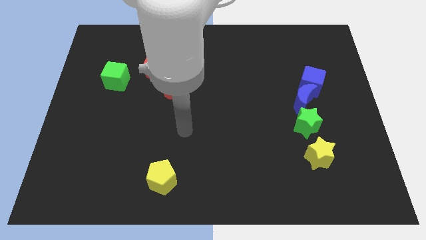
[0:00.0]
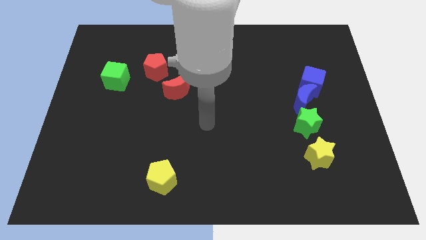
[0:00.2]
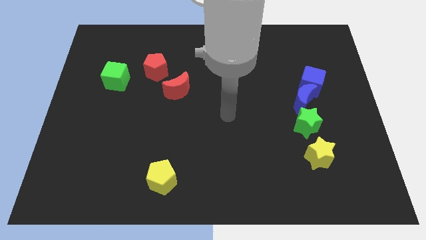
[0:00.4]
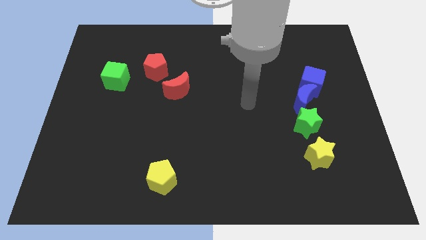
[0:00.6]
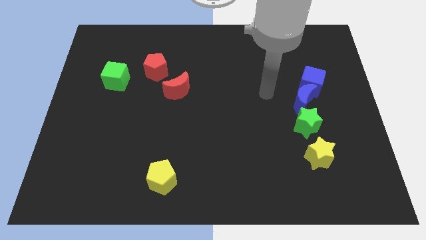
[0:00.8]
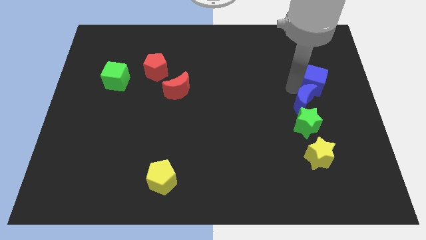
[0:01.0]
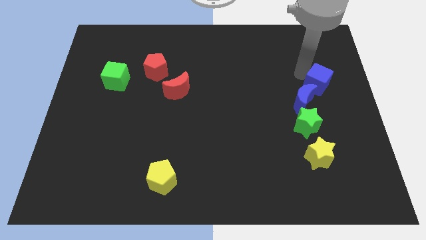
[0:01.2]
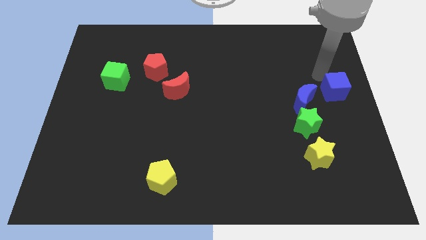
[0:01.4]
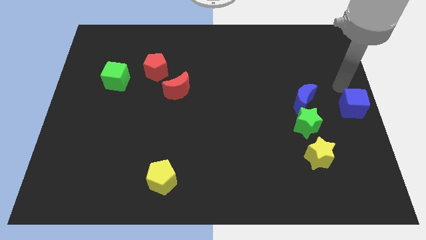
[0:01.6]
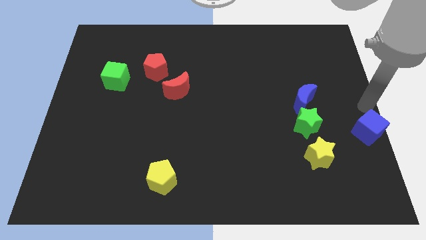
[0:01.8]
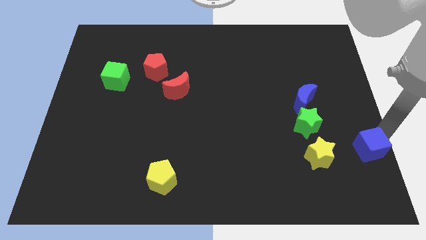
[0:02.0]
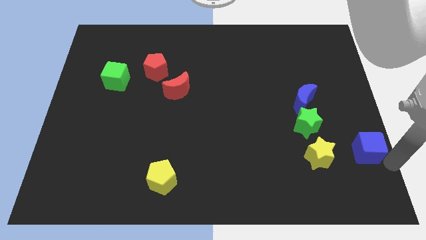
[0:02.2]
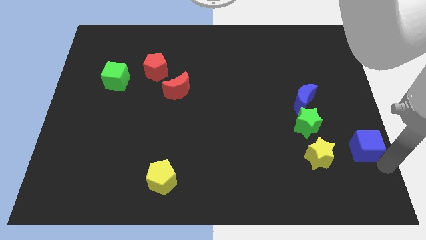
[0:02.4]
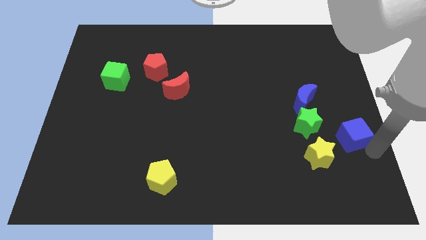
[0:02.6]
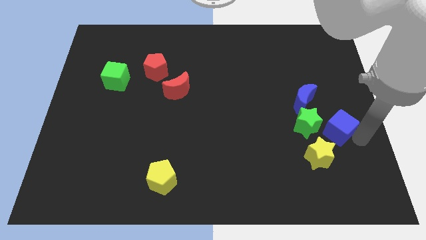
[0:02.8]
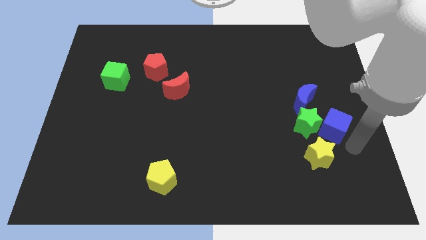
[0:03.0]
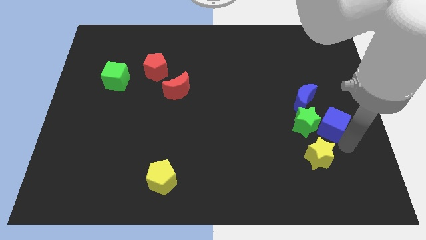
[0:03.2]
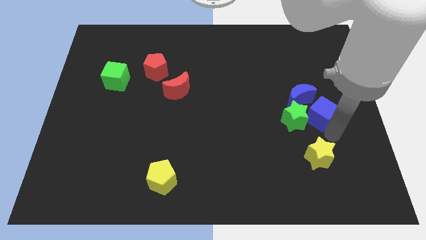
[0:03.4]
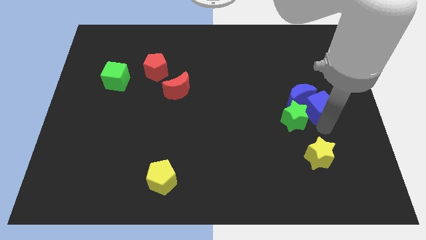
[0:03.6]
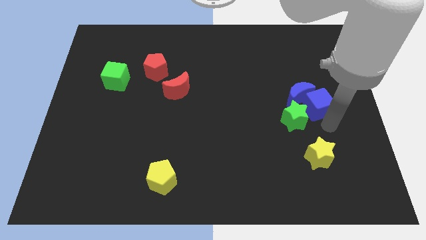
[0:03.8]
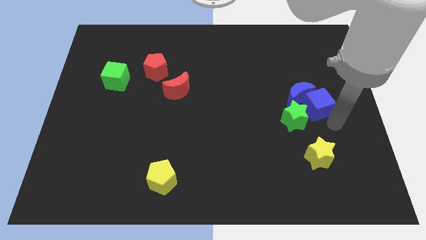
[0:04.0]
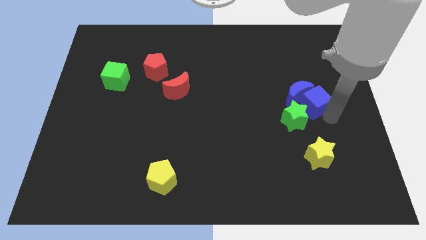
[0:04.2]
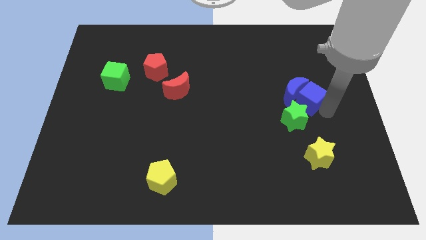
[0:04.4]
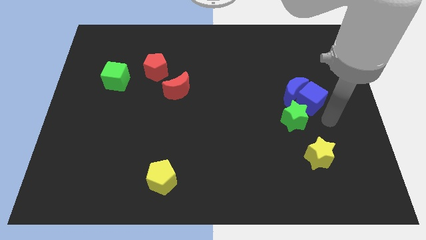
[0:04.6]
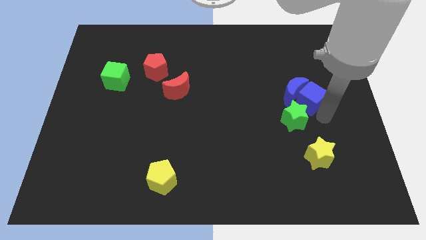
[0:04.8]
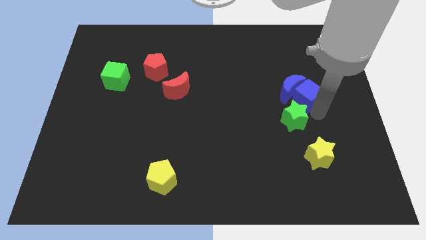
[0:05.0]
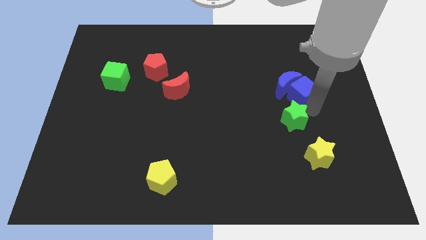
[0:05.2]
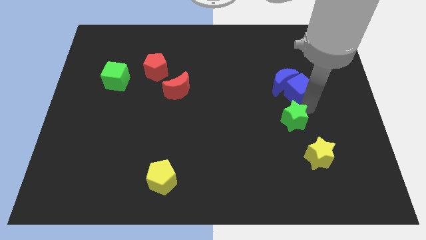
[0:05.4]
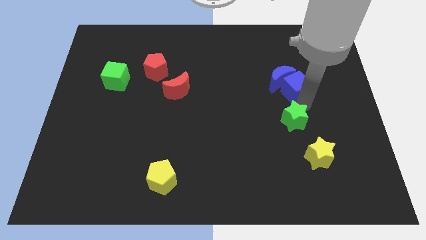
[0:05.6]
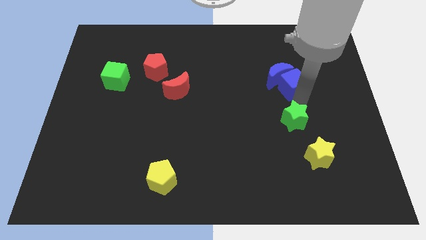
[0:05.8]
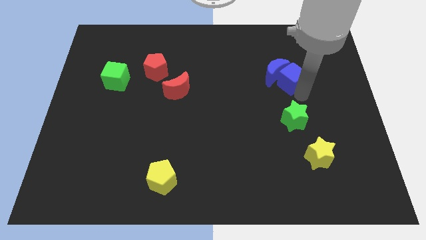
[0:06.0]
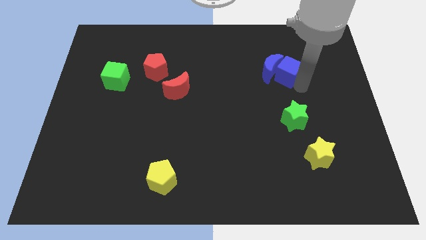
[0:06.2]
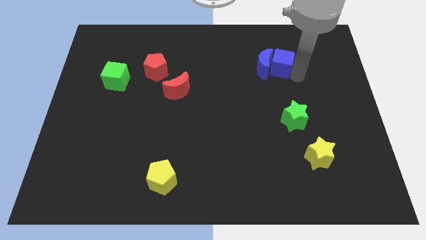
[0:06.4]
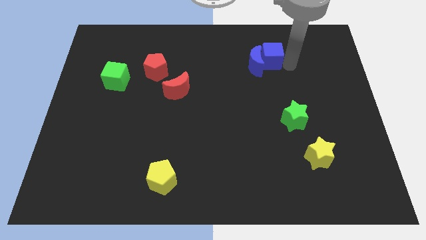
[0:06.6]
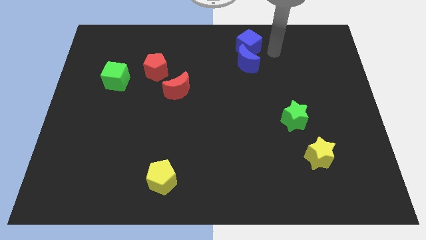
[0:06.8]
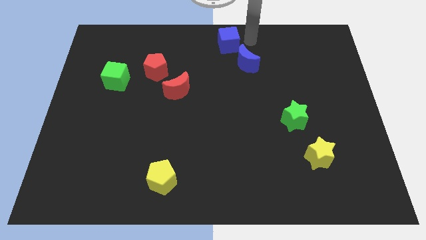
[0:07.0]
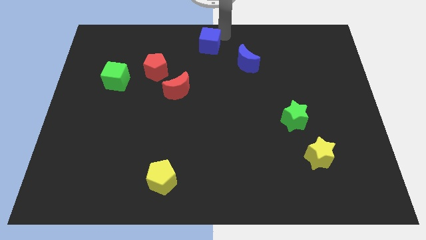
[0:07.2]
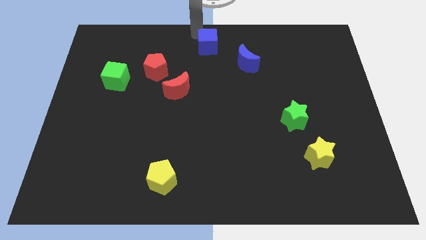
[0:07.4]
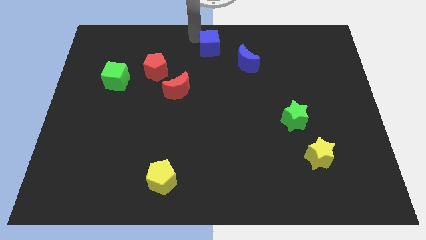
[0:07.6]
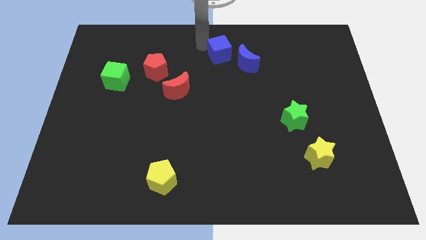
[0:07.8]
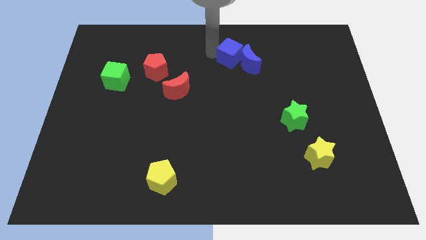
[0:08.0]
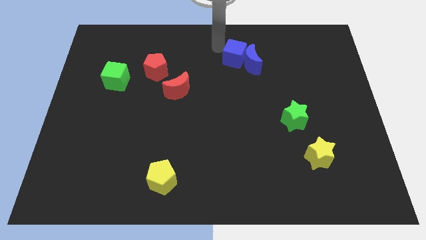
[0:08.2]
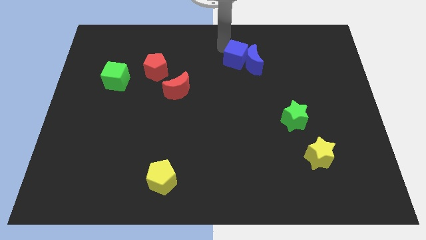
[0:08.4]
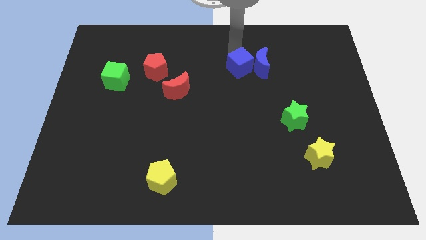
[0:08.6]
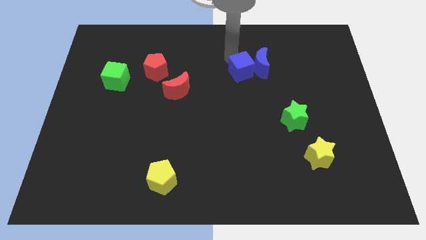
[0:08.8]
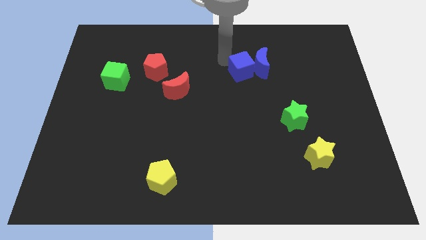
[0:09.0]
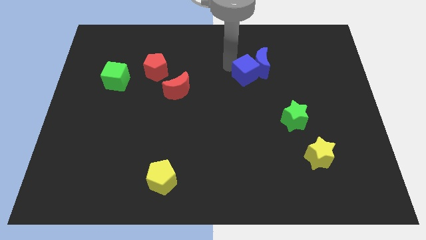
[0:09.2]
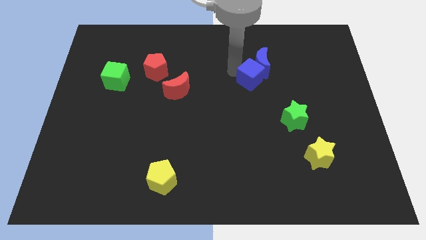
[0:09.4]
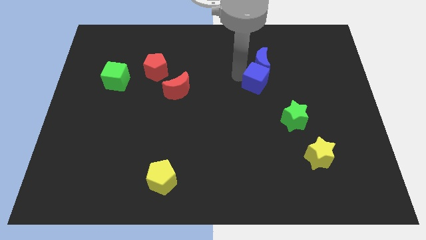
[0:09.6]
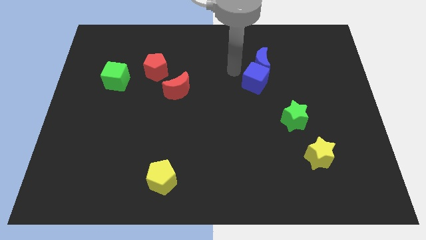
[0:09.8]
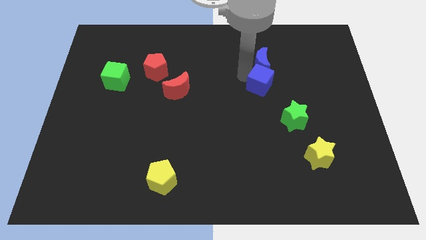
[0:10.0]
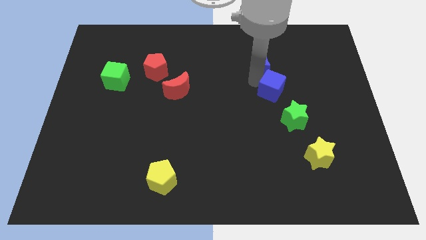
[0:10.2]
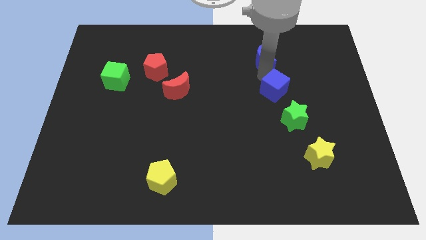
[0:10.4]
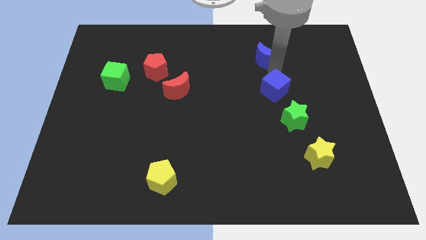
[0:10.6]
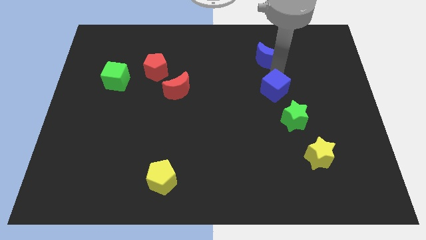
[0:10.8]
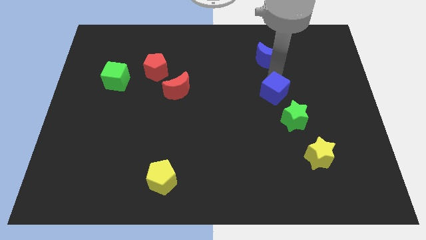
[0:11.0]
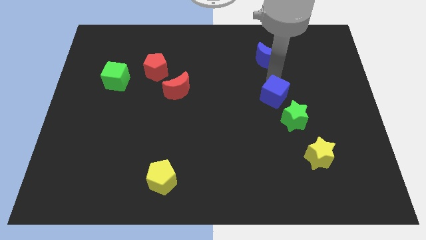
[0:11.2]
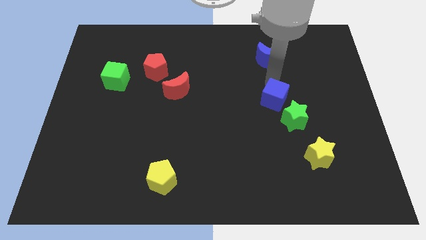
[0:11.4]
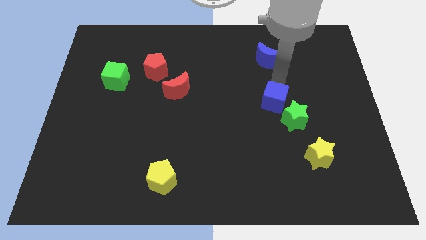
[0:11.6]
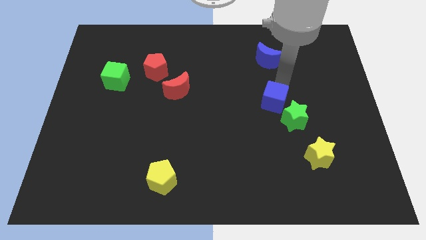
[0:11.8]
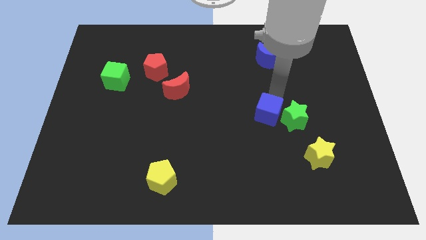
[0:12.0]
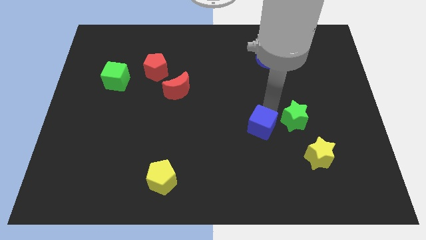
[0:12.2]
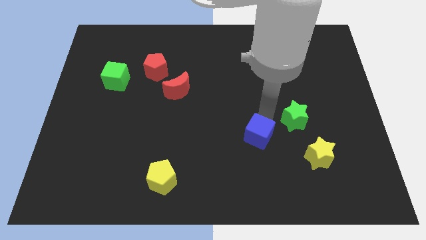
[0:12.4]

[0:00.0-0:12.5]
move the blue cube down and left

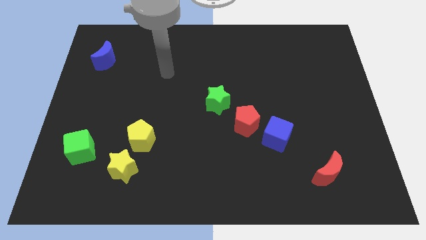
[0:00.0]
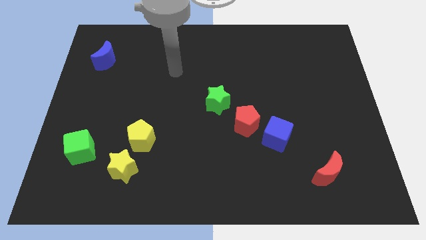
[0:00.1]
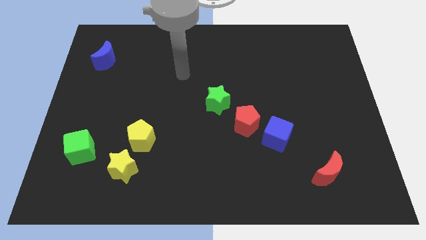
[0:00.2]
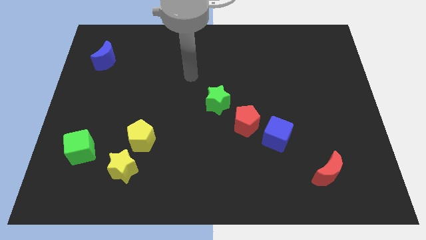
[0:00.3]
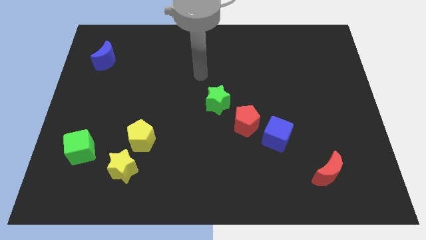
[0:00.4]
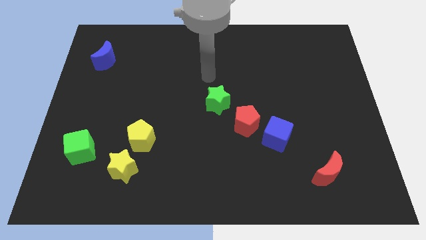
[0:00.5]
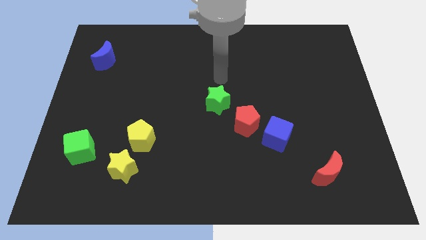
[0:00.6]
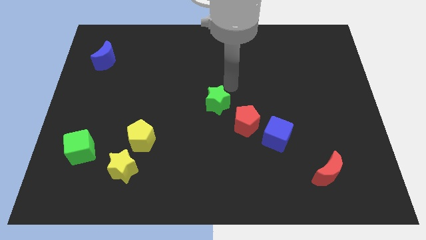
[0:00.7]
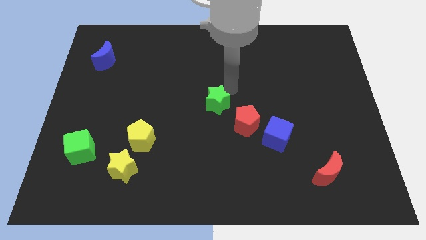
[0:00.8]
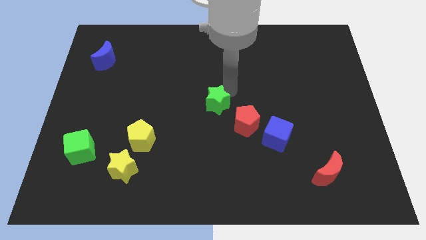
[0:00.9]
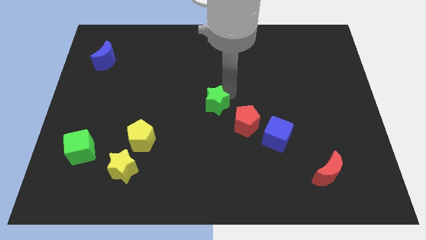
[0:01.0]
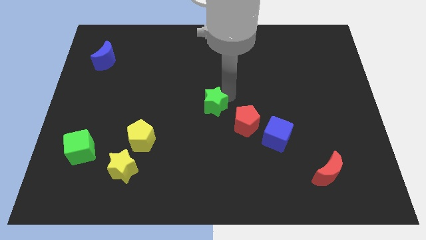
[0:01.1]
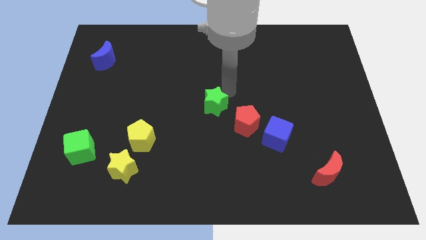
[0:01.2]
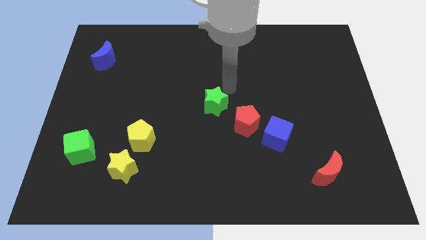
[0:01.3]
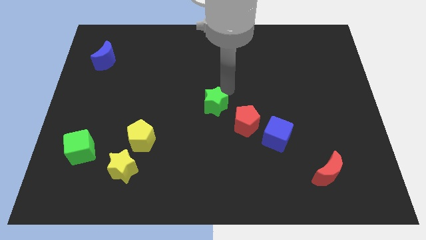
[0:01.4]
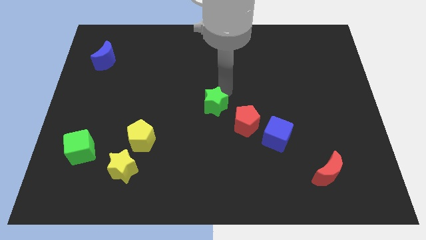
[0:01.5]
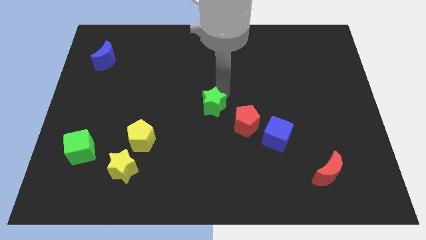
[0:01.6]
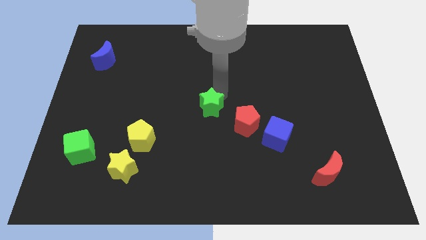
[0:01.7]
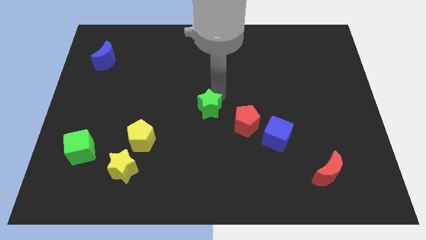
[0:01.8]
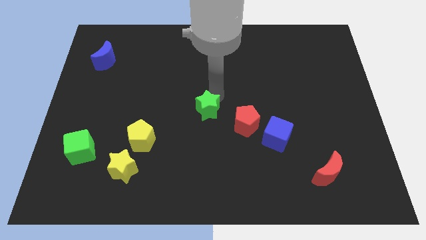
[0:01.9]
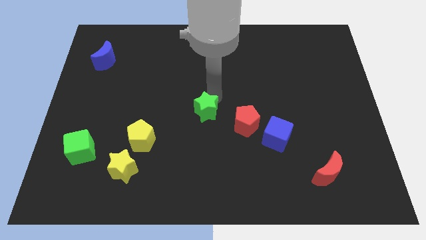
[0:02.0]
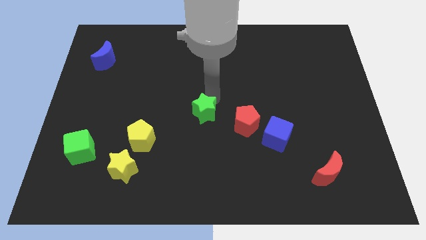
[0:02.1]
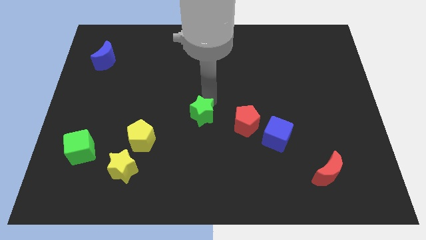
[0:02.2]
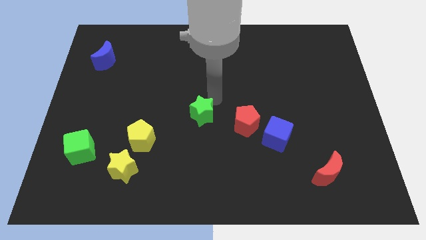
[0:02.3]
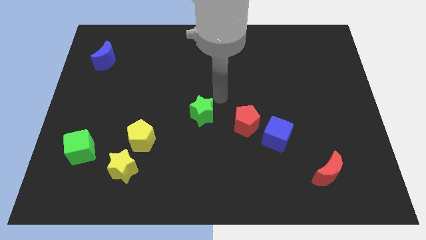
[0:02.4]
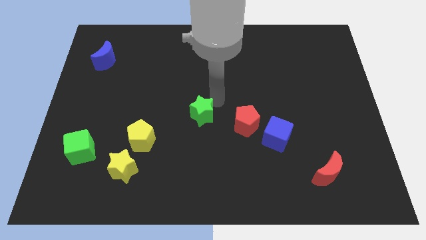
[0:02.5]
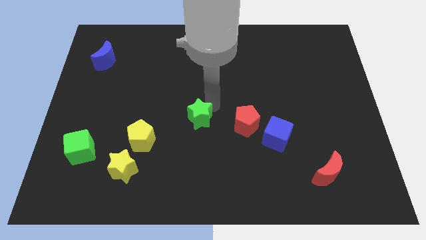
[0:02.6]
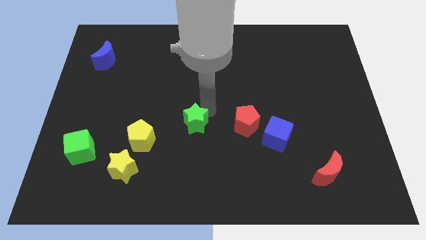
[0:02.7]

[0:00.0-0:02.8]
push the green star a bit diagonally downwards and left
